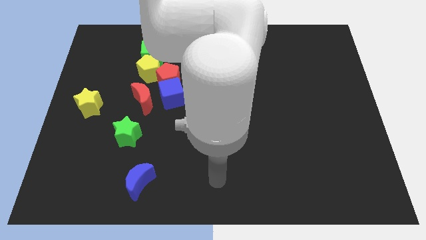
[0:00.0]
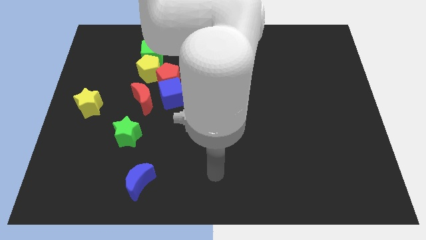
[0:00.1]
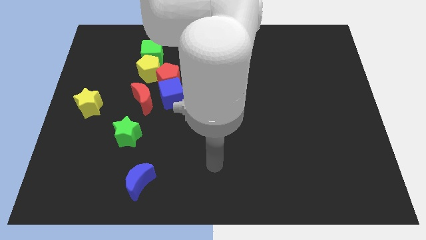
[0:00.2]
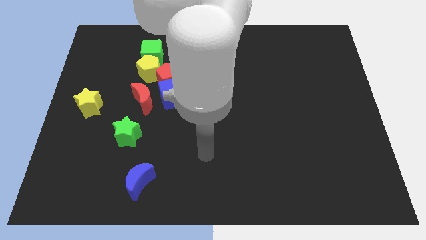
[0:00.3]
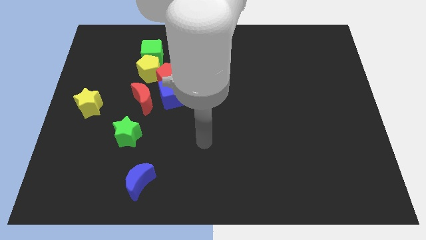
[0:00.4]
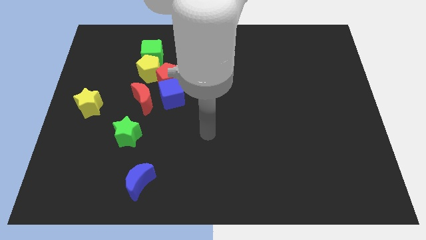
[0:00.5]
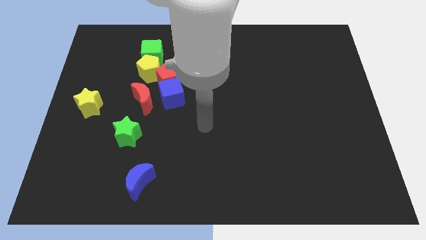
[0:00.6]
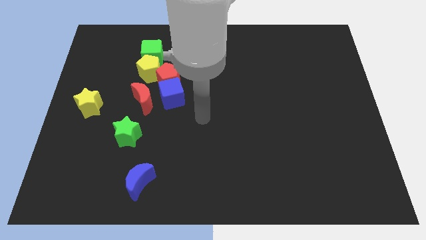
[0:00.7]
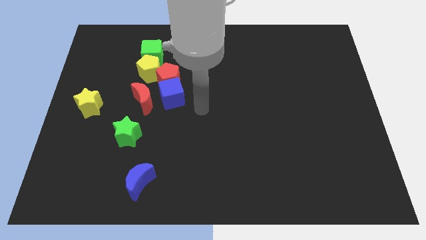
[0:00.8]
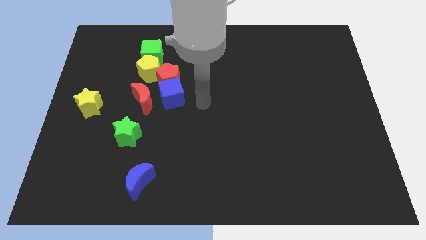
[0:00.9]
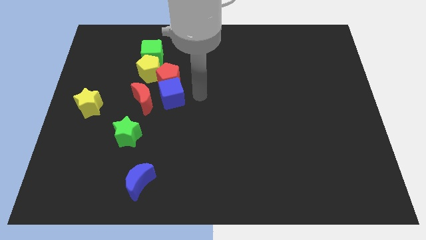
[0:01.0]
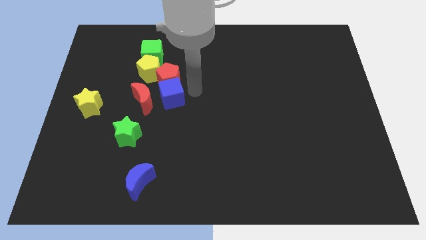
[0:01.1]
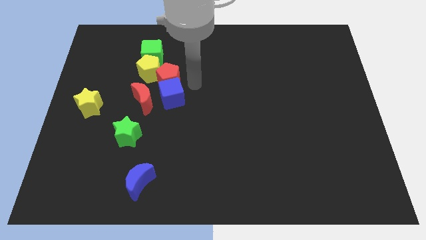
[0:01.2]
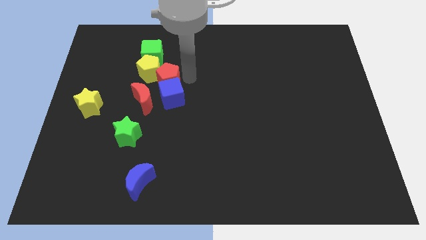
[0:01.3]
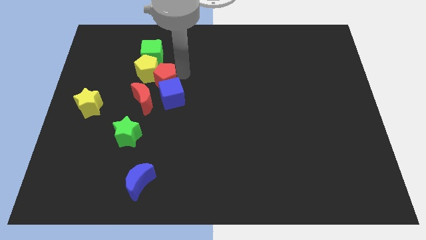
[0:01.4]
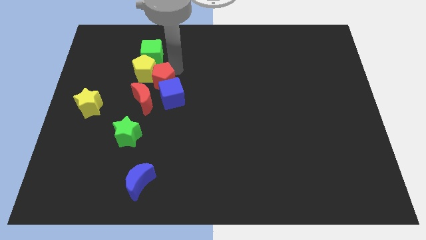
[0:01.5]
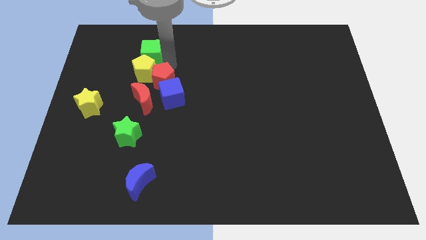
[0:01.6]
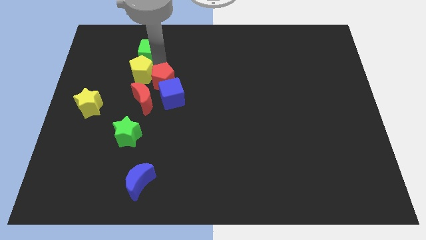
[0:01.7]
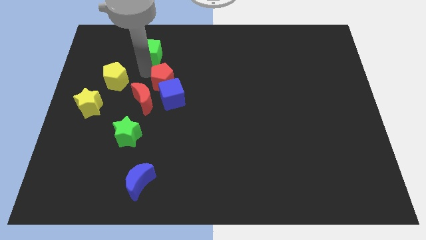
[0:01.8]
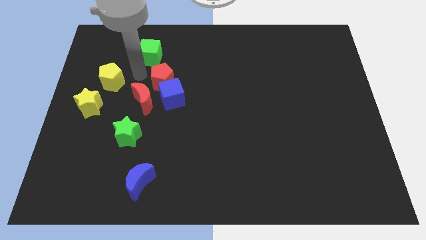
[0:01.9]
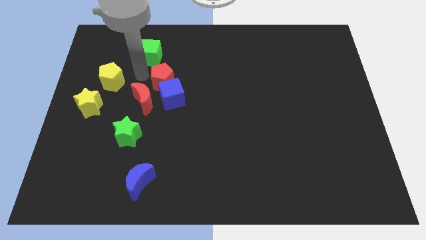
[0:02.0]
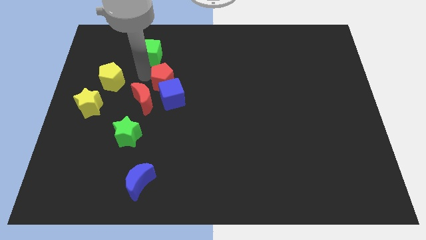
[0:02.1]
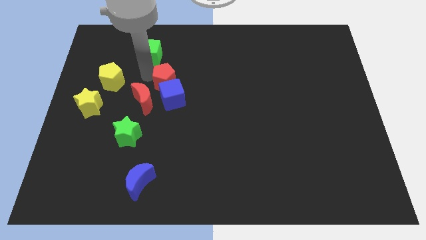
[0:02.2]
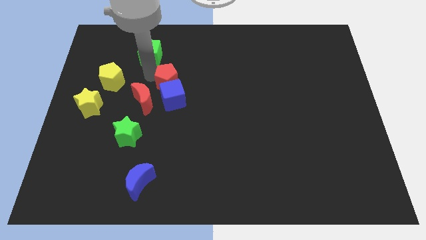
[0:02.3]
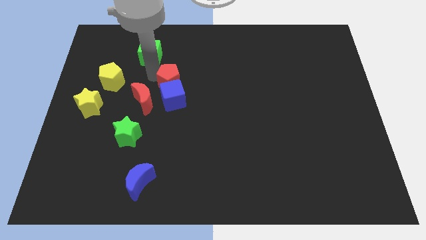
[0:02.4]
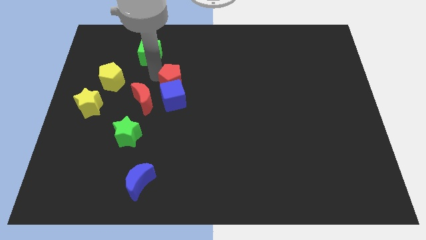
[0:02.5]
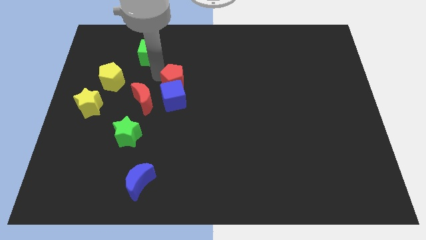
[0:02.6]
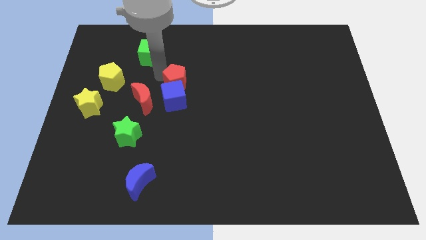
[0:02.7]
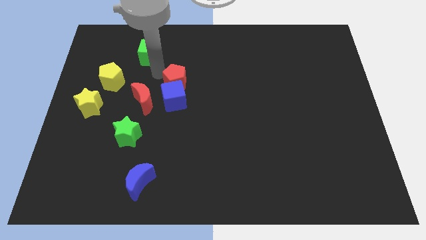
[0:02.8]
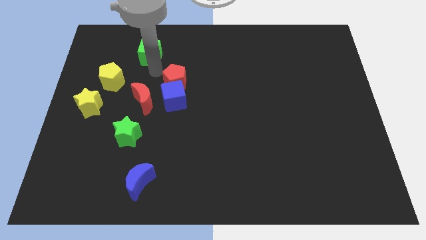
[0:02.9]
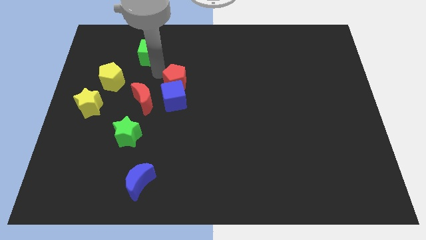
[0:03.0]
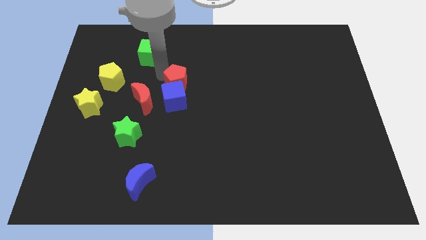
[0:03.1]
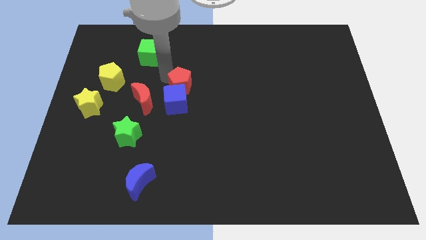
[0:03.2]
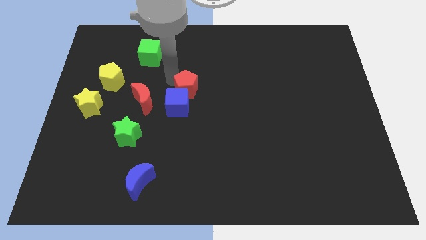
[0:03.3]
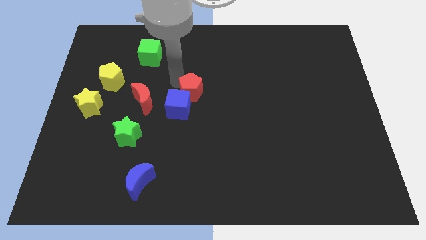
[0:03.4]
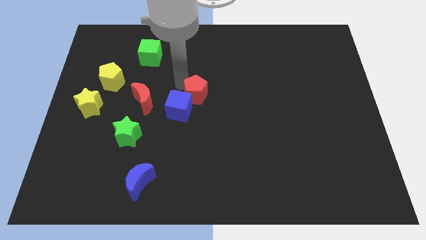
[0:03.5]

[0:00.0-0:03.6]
move the red pentagon diagonally down and to the right a bit

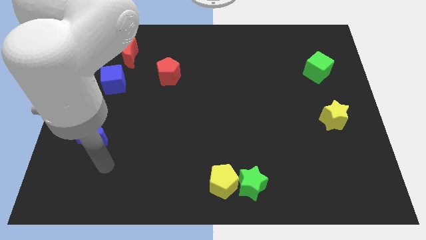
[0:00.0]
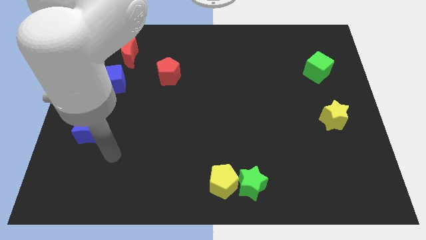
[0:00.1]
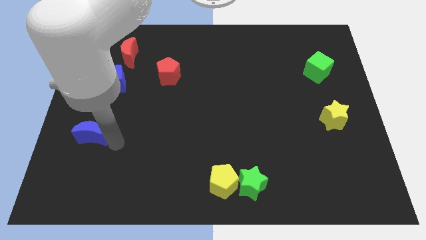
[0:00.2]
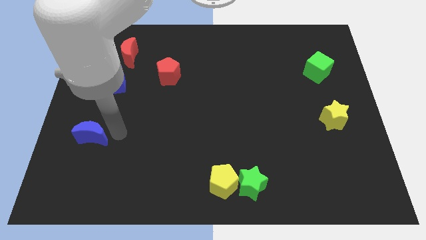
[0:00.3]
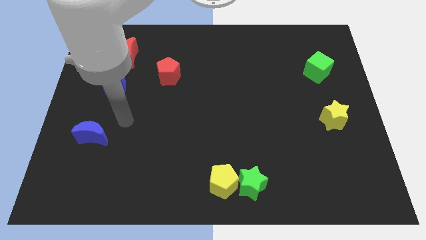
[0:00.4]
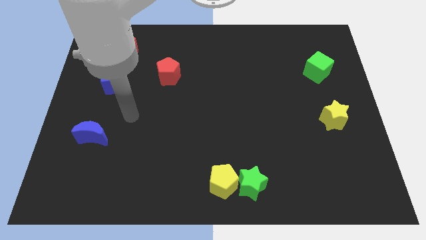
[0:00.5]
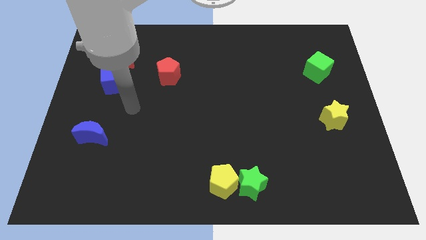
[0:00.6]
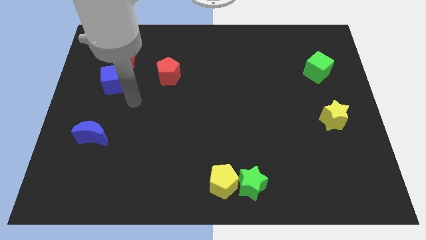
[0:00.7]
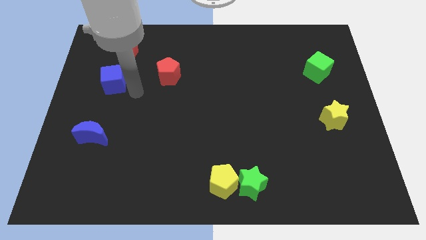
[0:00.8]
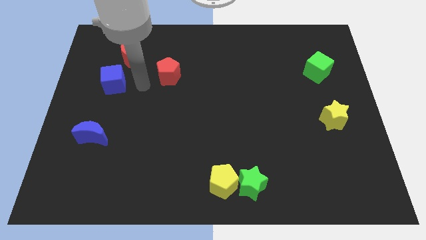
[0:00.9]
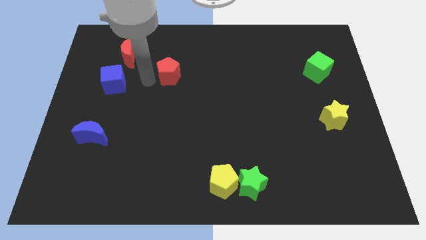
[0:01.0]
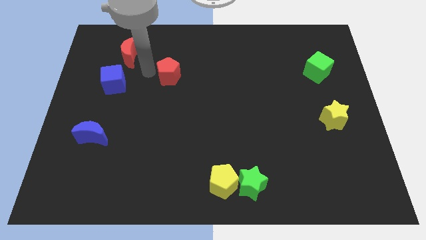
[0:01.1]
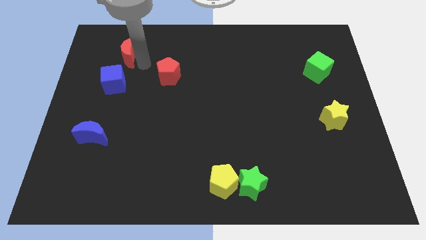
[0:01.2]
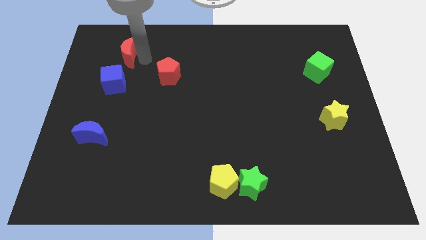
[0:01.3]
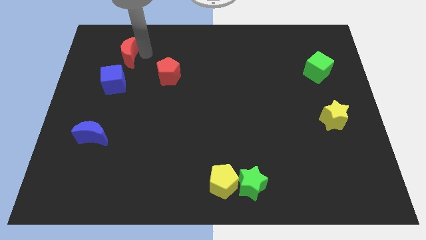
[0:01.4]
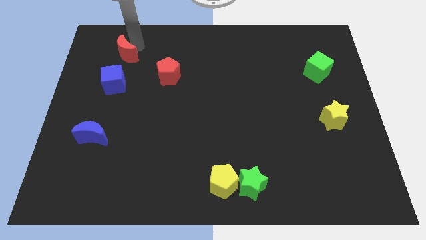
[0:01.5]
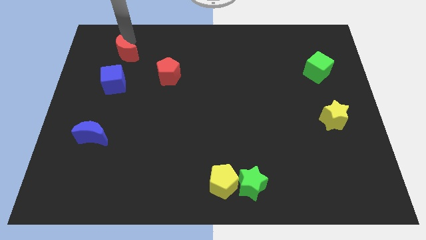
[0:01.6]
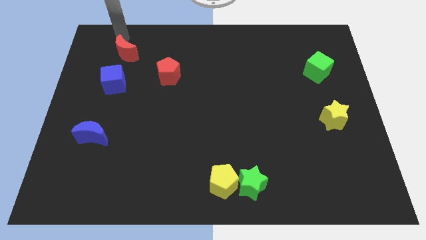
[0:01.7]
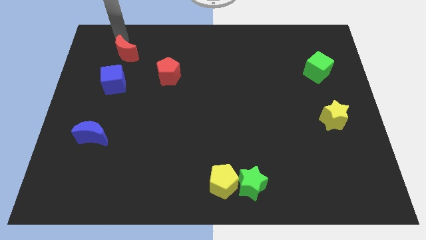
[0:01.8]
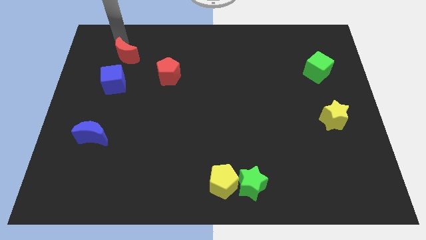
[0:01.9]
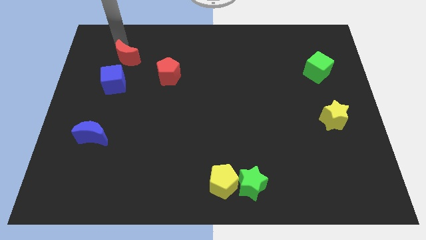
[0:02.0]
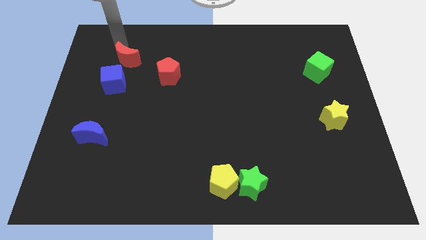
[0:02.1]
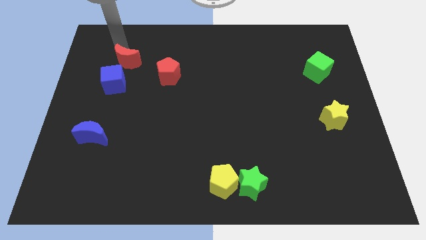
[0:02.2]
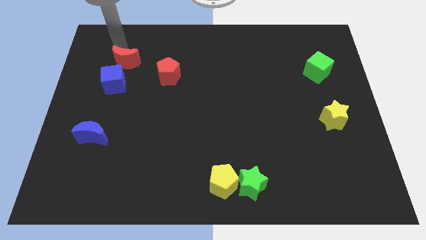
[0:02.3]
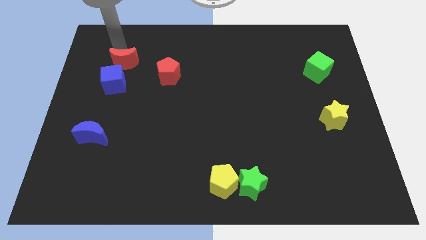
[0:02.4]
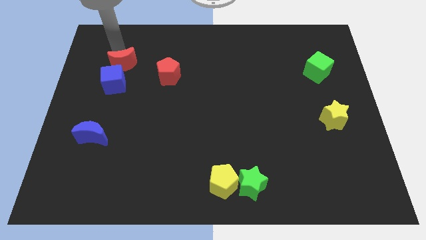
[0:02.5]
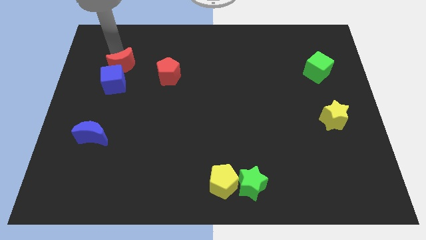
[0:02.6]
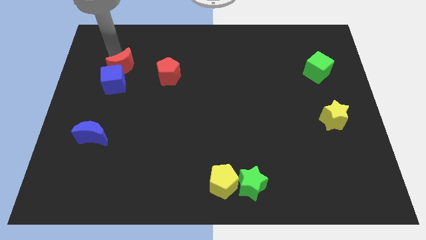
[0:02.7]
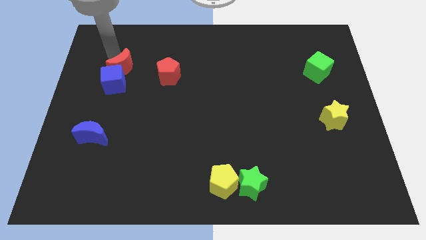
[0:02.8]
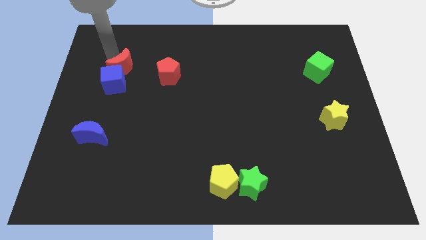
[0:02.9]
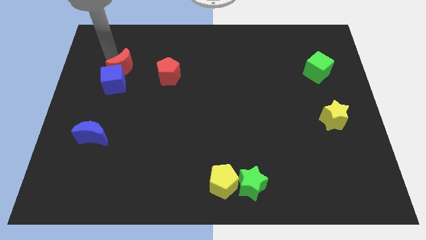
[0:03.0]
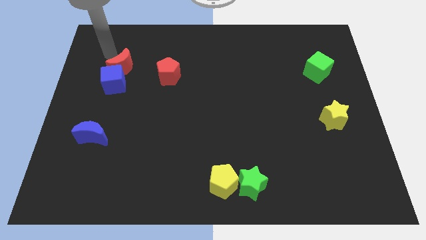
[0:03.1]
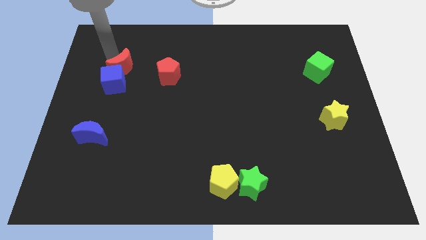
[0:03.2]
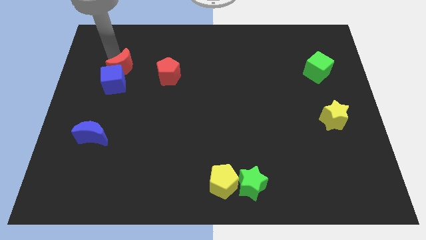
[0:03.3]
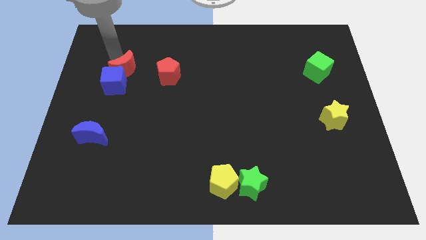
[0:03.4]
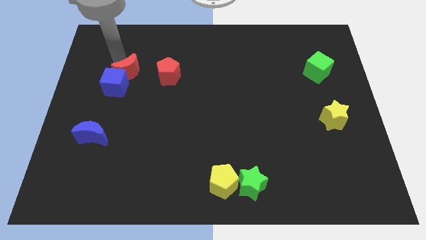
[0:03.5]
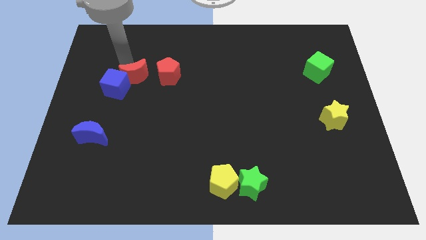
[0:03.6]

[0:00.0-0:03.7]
slightly move the red moon downwards

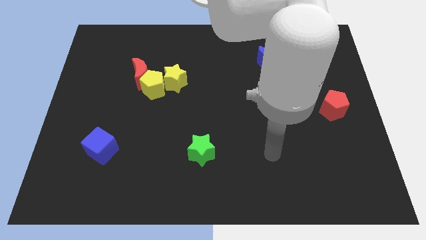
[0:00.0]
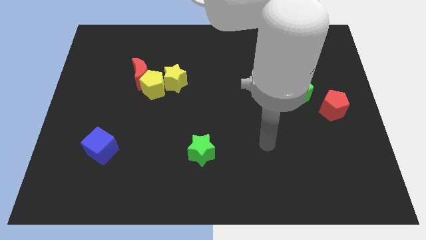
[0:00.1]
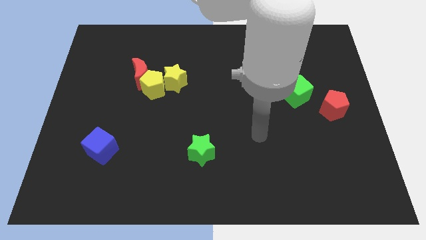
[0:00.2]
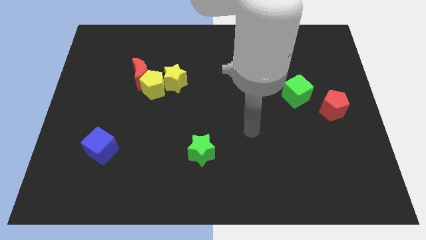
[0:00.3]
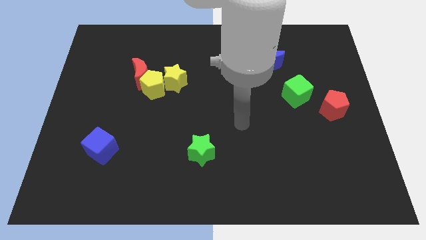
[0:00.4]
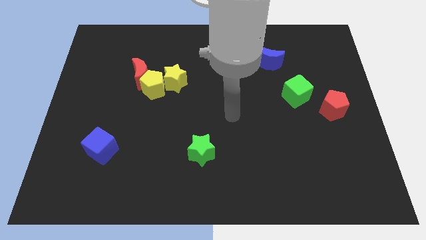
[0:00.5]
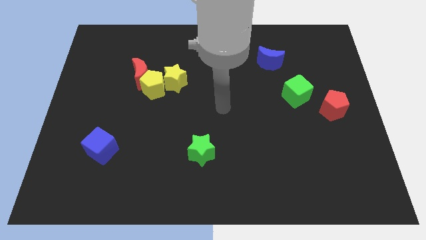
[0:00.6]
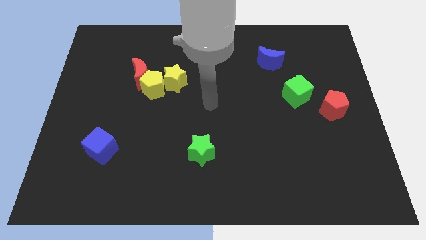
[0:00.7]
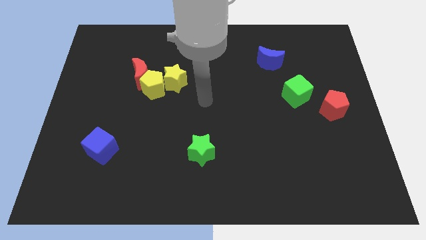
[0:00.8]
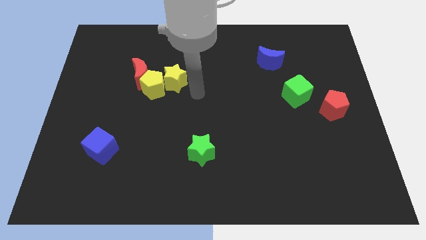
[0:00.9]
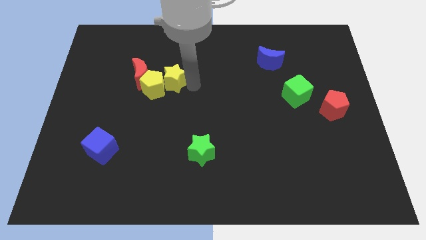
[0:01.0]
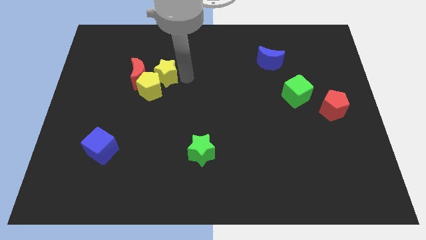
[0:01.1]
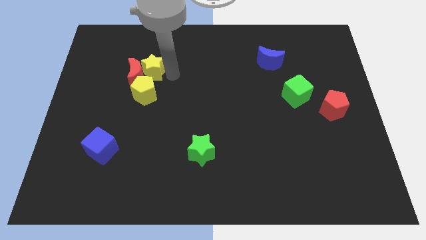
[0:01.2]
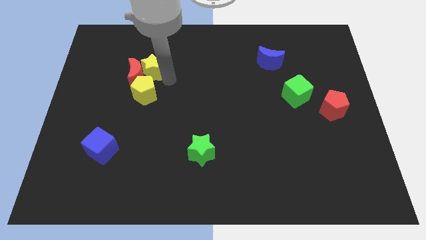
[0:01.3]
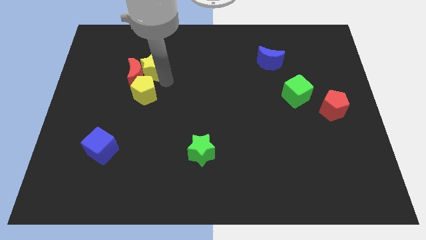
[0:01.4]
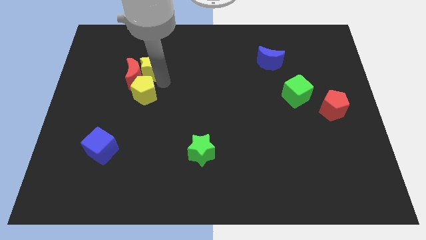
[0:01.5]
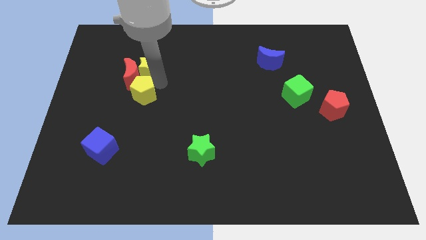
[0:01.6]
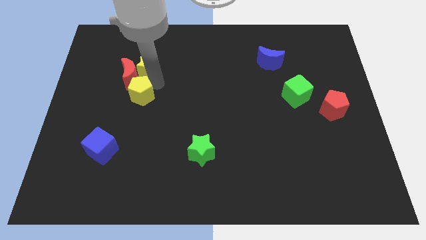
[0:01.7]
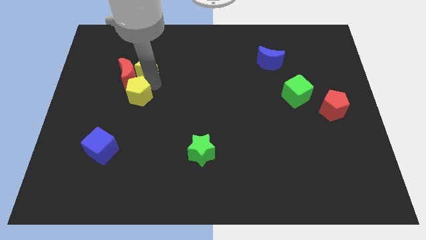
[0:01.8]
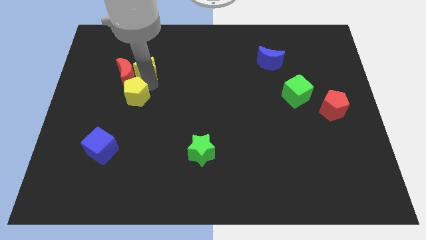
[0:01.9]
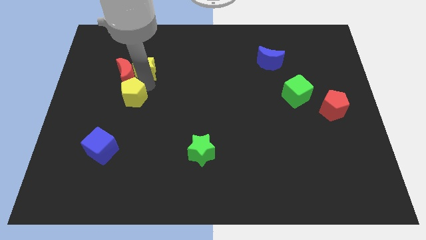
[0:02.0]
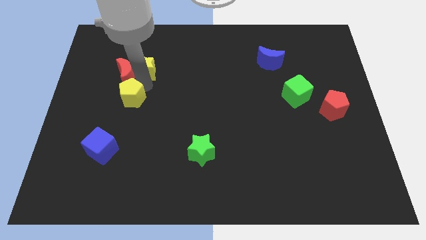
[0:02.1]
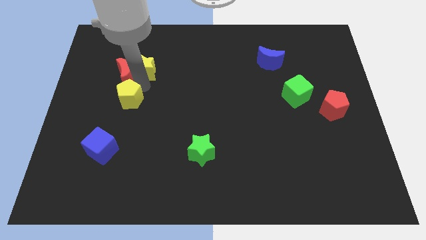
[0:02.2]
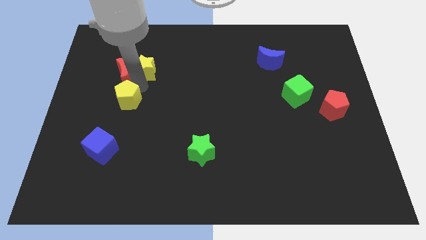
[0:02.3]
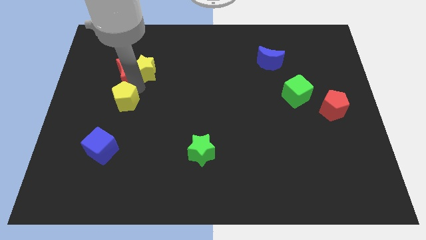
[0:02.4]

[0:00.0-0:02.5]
push the yellow pentagon downwards and left diagonally a little bit
